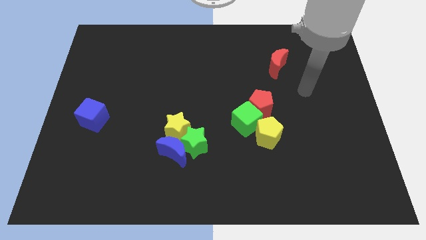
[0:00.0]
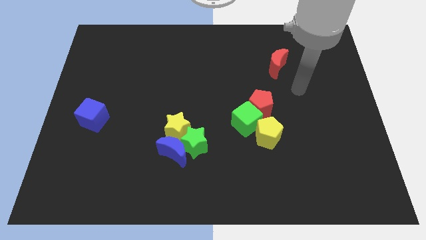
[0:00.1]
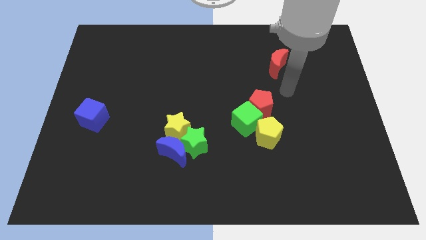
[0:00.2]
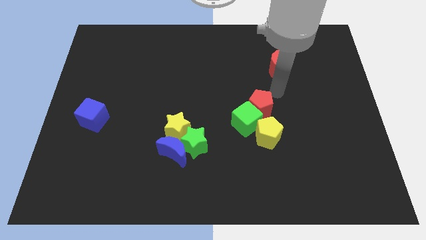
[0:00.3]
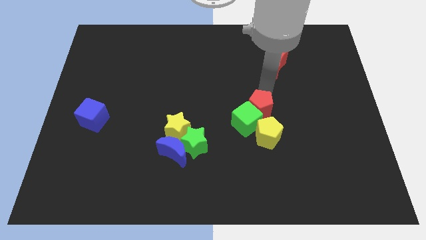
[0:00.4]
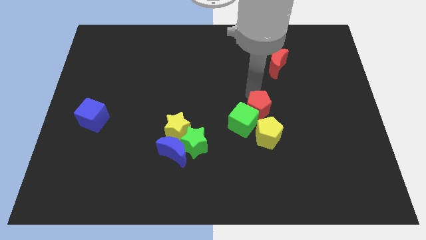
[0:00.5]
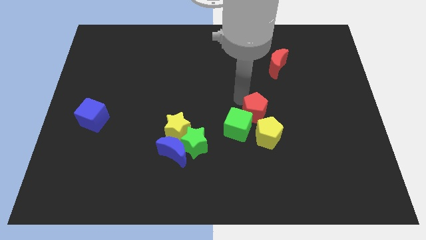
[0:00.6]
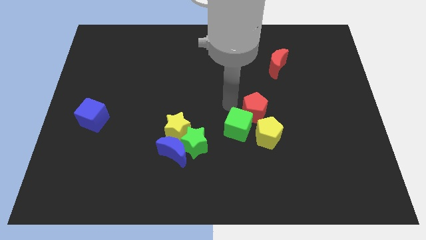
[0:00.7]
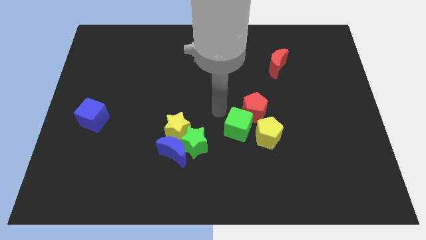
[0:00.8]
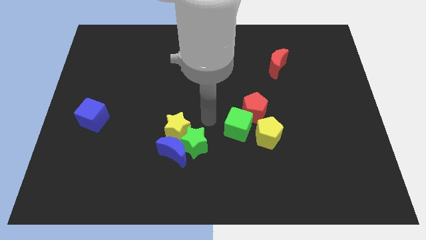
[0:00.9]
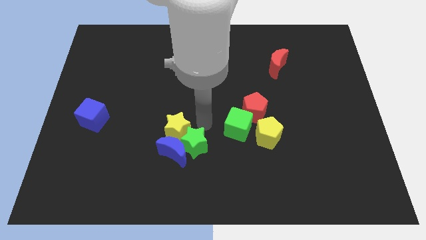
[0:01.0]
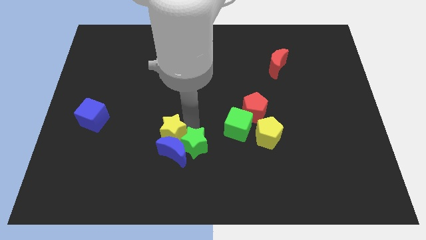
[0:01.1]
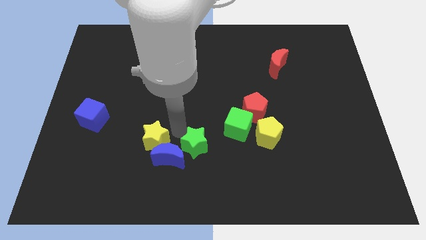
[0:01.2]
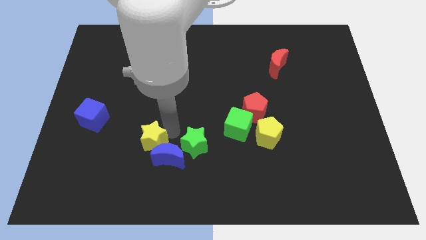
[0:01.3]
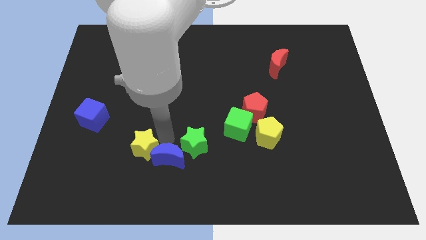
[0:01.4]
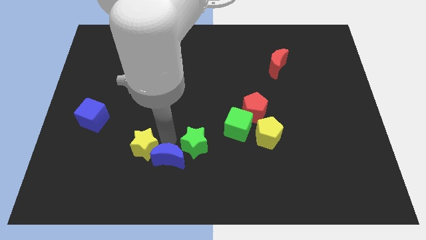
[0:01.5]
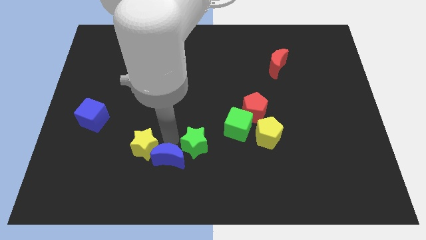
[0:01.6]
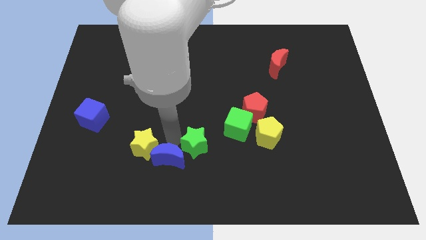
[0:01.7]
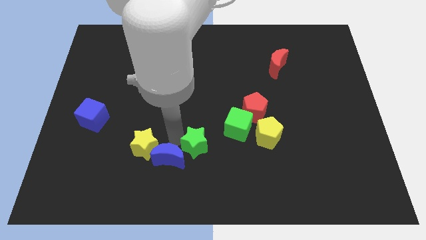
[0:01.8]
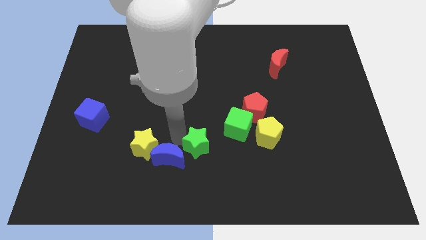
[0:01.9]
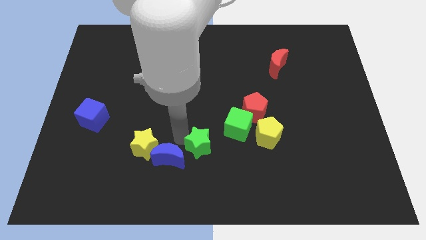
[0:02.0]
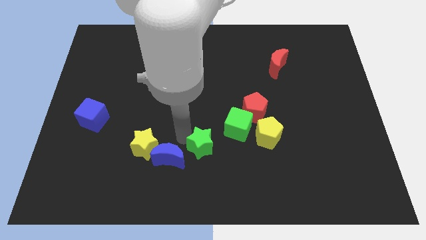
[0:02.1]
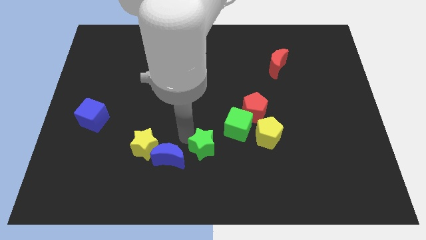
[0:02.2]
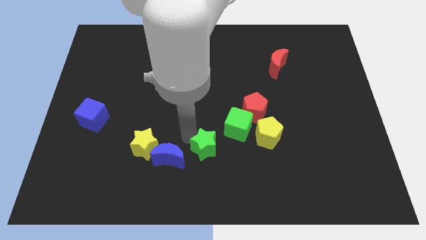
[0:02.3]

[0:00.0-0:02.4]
separate the green star from the blue moon and yellow star

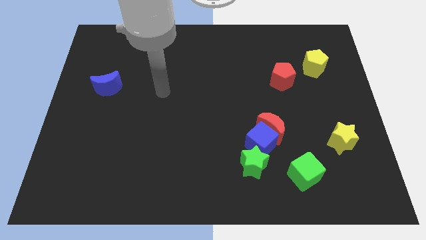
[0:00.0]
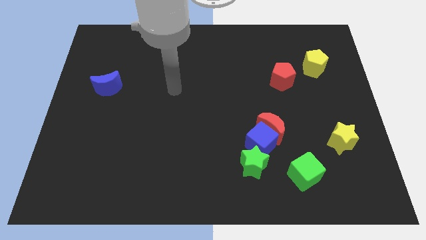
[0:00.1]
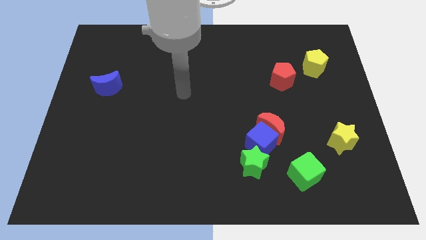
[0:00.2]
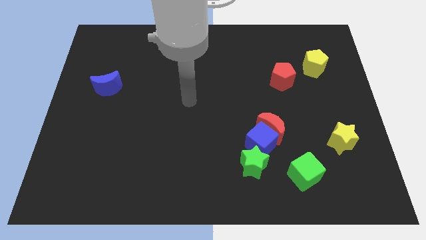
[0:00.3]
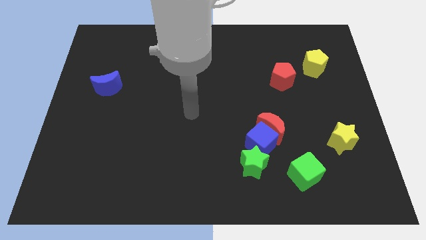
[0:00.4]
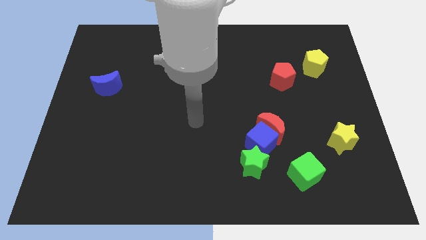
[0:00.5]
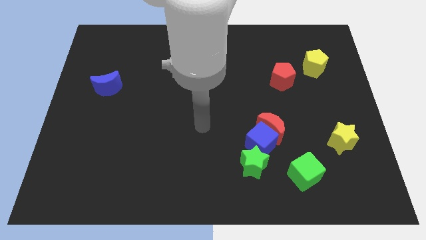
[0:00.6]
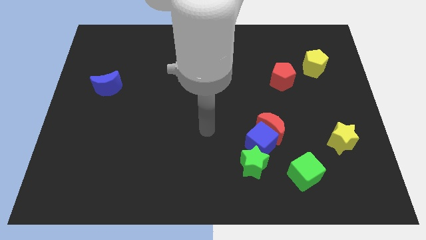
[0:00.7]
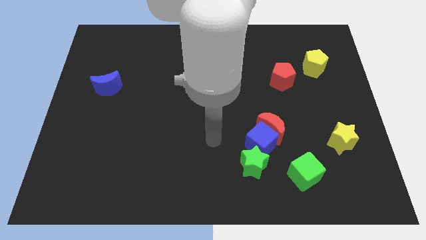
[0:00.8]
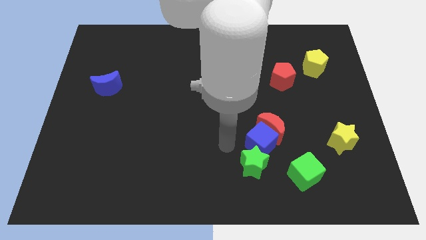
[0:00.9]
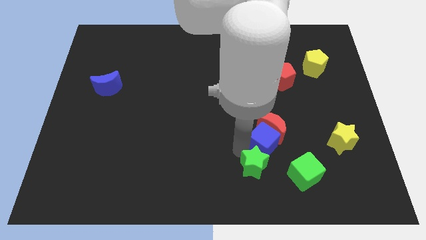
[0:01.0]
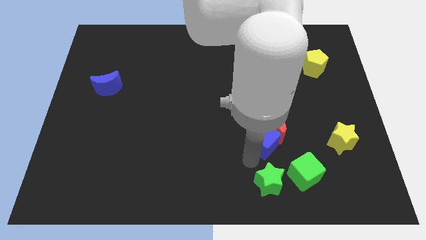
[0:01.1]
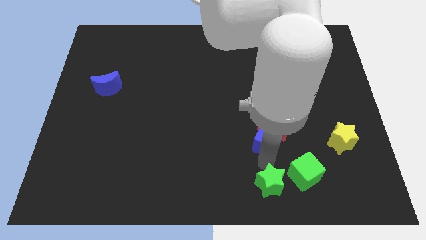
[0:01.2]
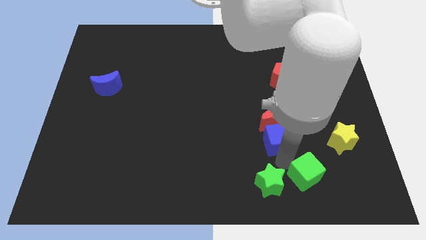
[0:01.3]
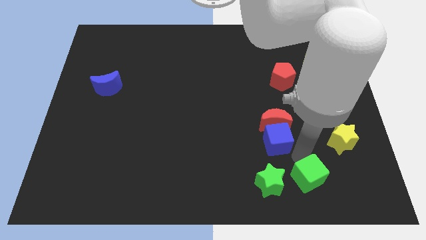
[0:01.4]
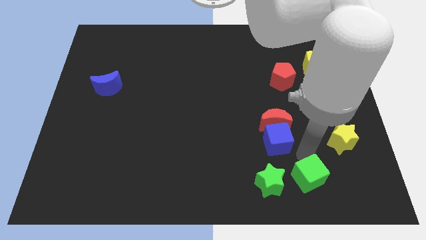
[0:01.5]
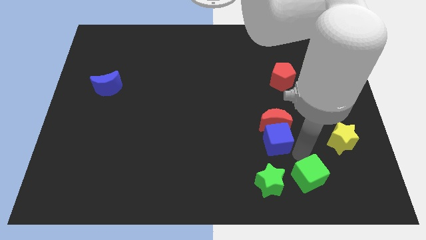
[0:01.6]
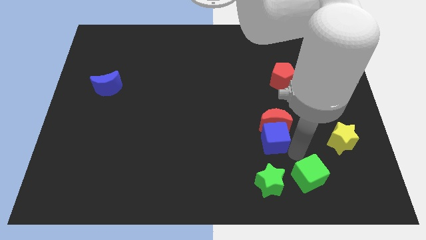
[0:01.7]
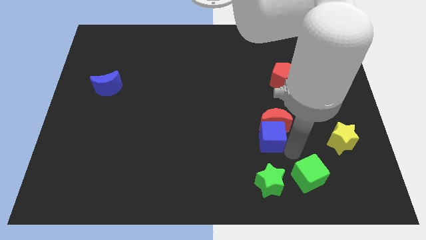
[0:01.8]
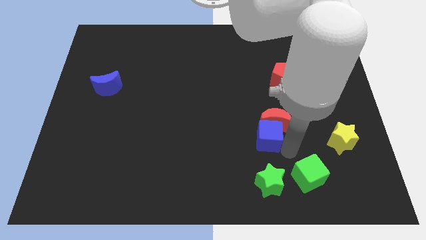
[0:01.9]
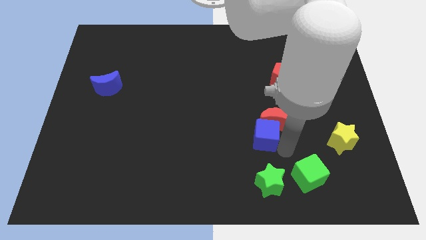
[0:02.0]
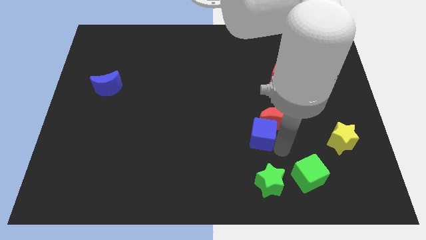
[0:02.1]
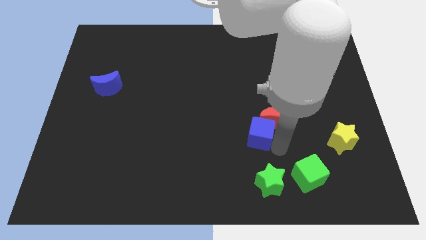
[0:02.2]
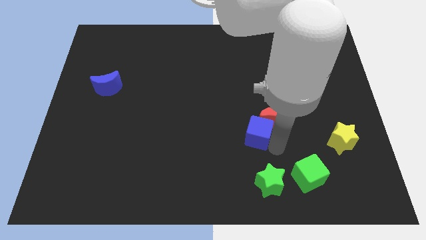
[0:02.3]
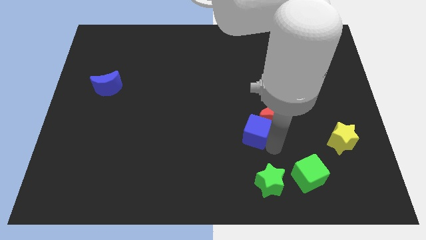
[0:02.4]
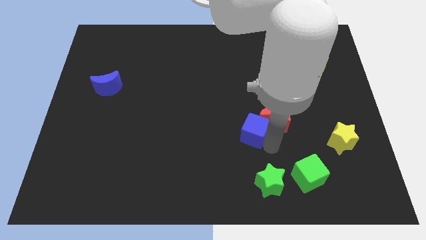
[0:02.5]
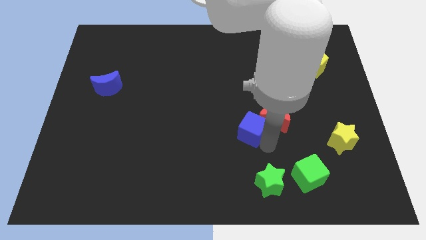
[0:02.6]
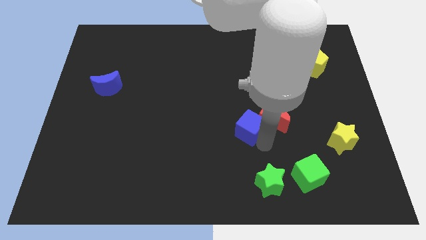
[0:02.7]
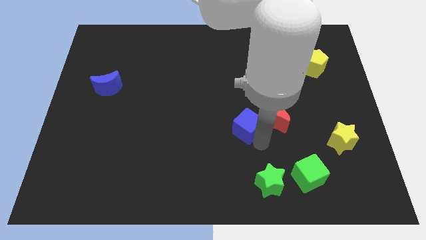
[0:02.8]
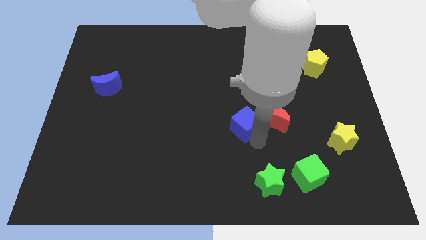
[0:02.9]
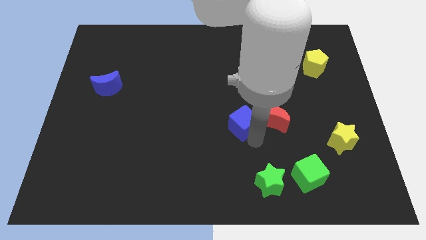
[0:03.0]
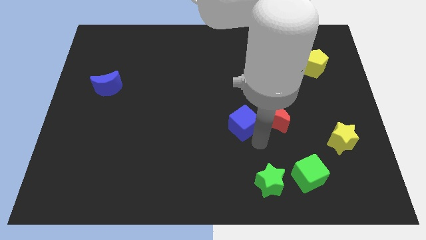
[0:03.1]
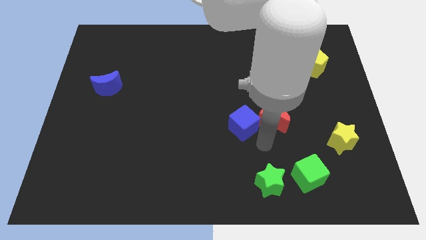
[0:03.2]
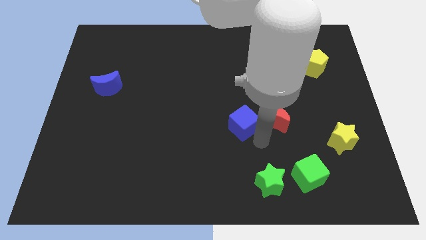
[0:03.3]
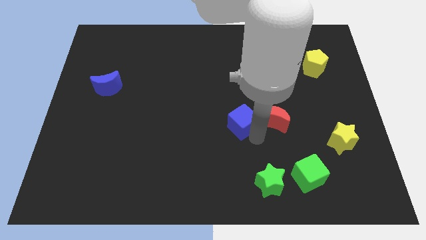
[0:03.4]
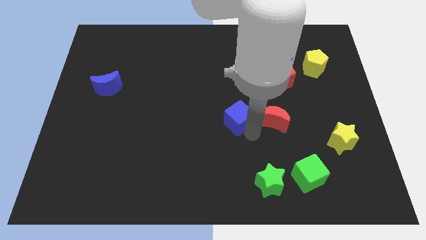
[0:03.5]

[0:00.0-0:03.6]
move the blue cube away from the red moon and green star

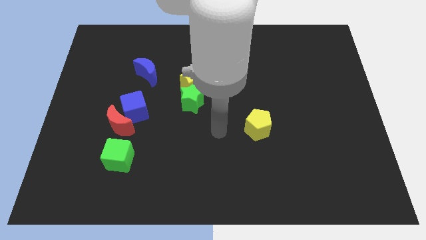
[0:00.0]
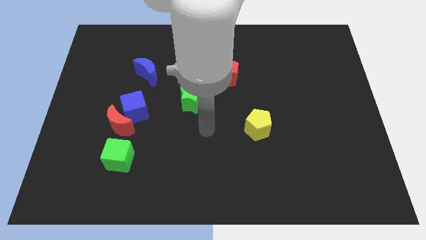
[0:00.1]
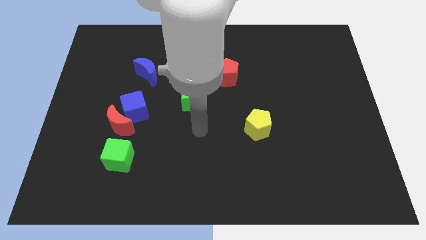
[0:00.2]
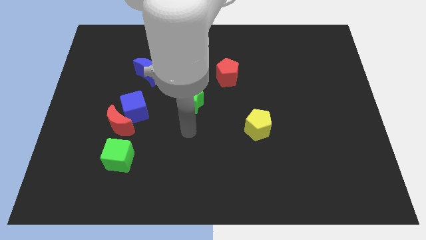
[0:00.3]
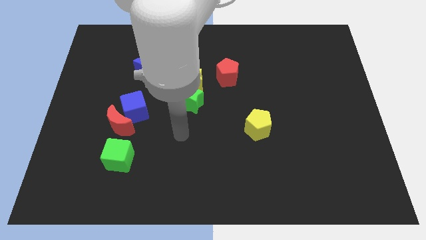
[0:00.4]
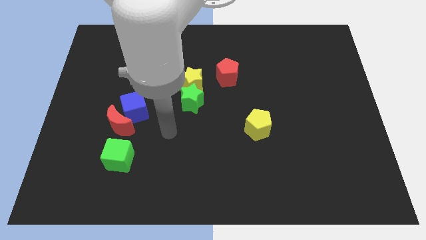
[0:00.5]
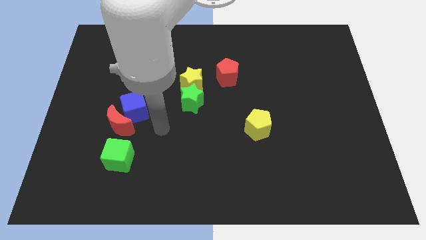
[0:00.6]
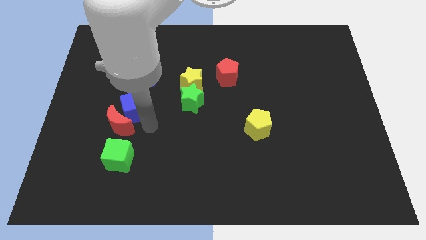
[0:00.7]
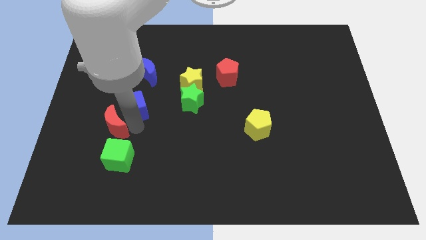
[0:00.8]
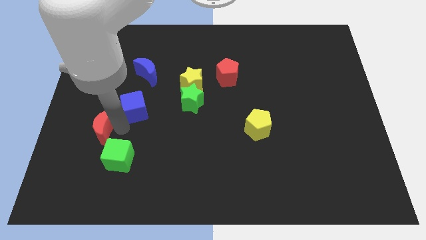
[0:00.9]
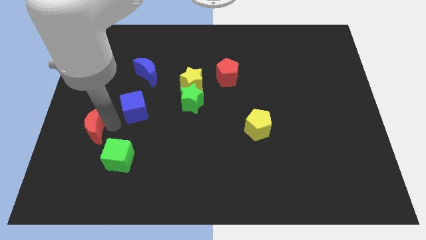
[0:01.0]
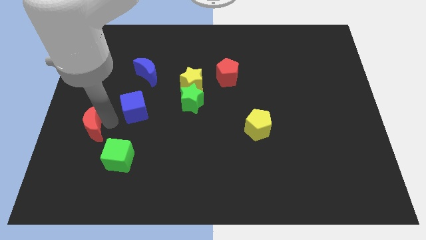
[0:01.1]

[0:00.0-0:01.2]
separate the blue cube from the red moon

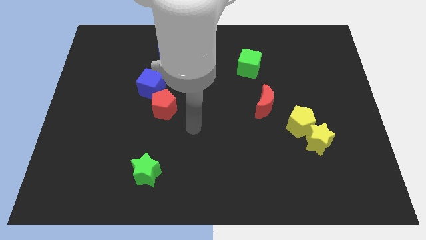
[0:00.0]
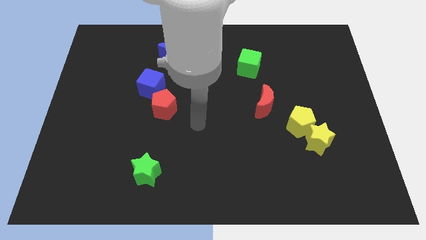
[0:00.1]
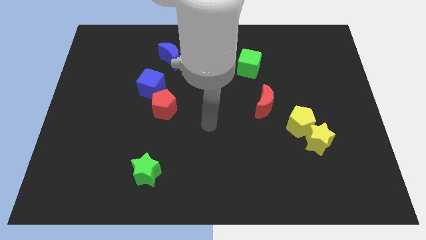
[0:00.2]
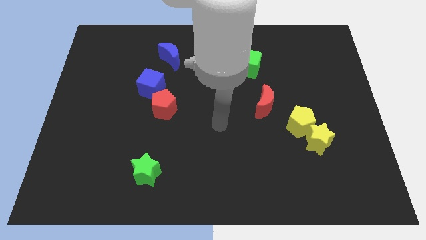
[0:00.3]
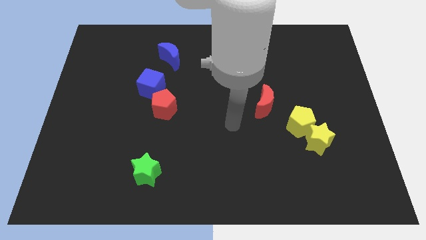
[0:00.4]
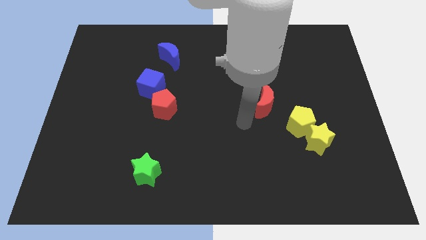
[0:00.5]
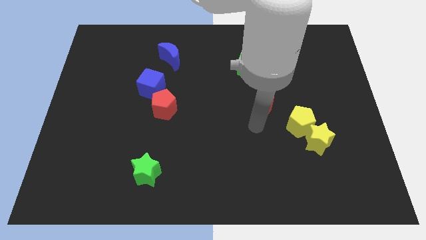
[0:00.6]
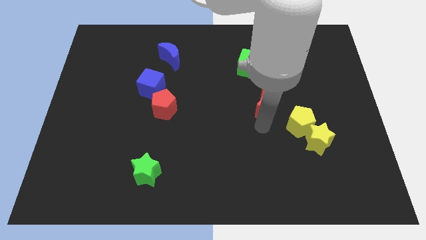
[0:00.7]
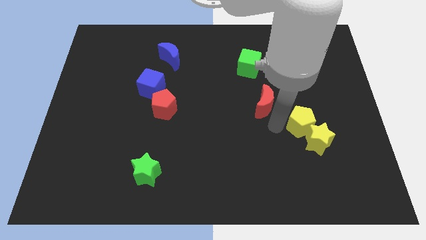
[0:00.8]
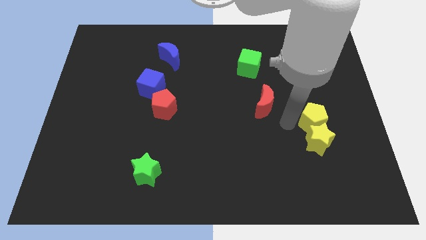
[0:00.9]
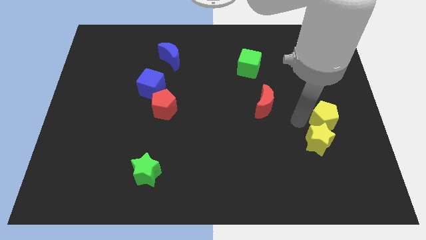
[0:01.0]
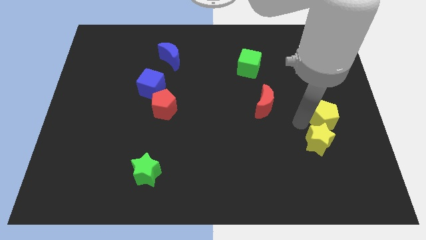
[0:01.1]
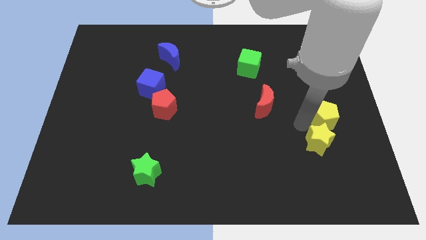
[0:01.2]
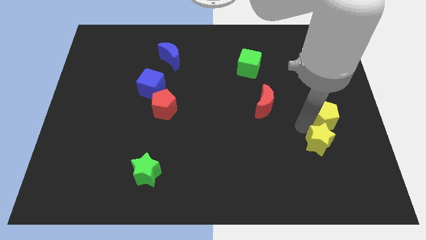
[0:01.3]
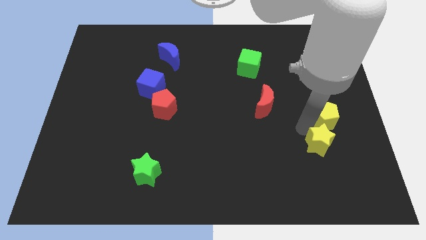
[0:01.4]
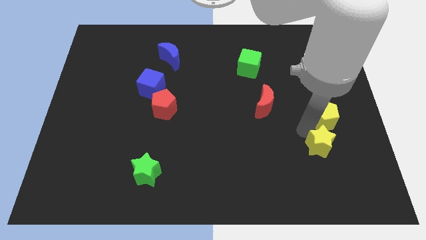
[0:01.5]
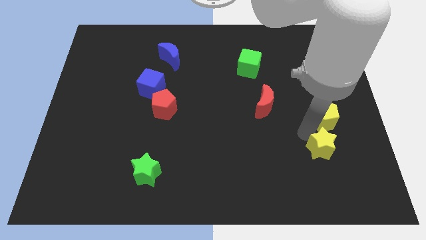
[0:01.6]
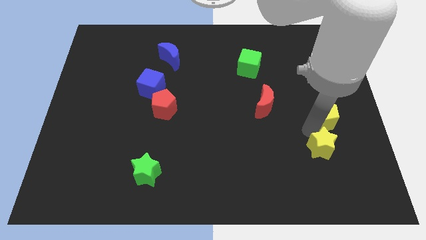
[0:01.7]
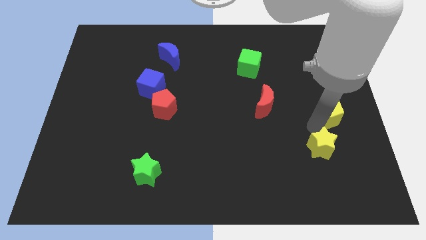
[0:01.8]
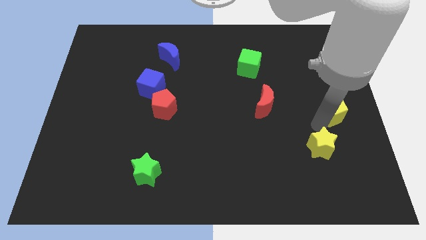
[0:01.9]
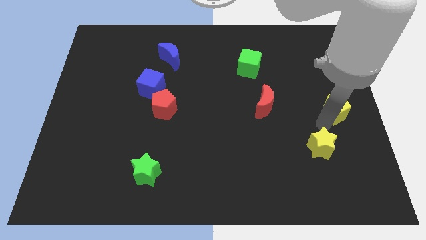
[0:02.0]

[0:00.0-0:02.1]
separate the yellow star from the yellow pentagon
